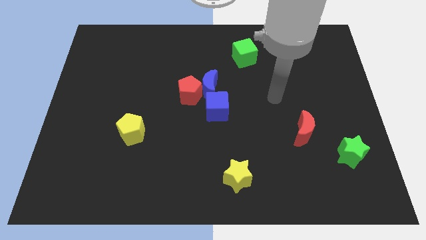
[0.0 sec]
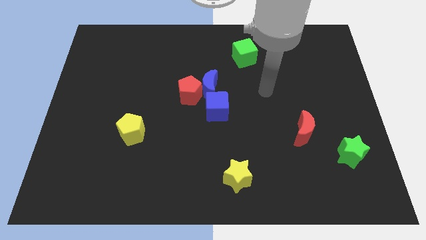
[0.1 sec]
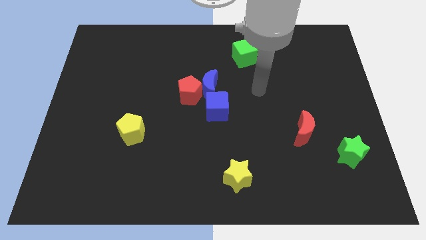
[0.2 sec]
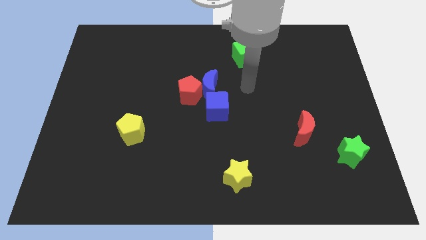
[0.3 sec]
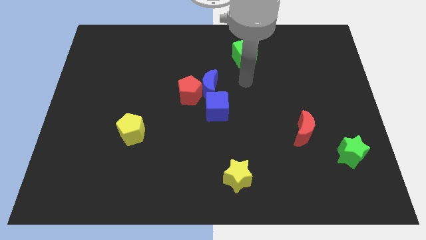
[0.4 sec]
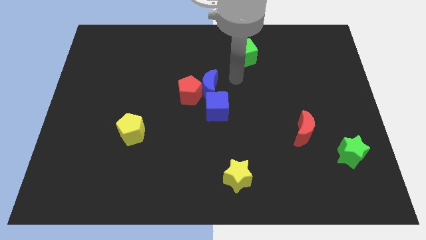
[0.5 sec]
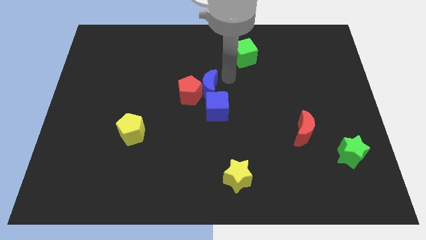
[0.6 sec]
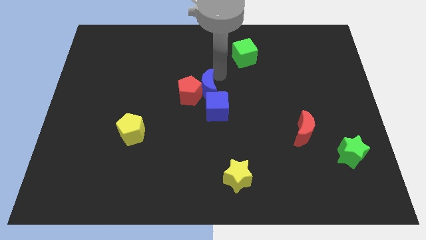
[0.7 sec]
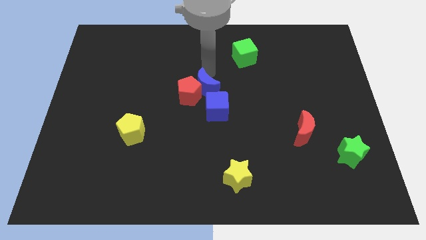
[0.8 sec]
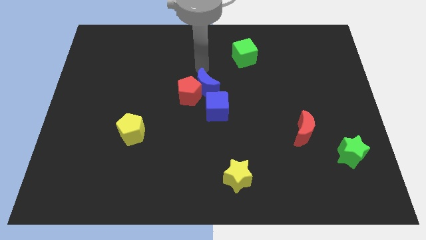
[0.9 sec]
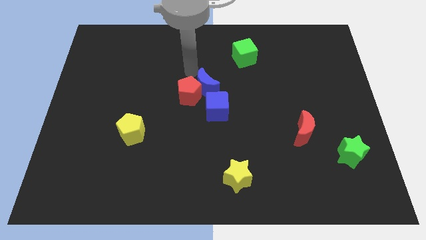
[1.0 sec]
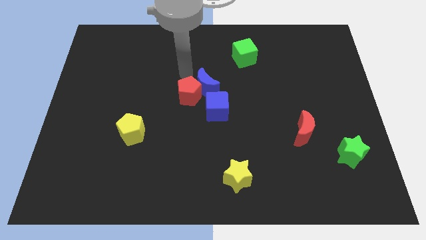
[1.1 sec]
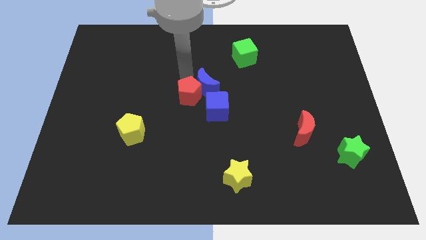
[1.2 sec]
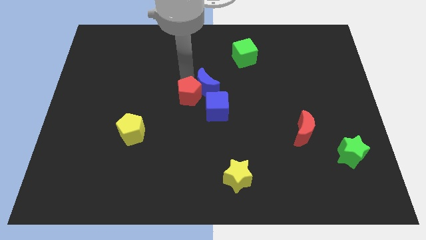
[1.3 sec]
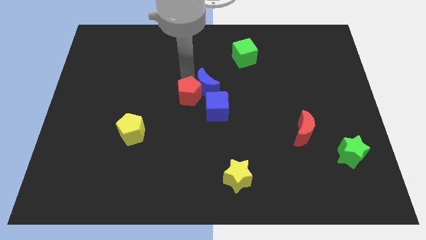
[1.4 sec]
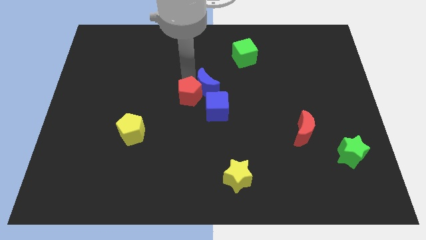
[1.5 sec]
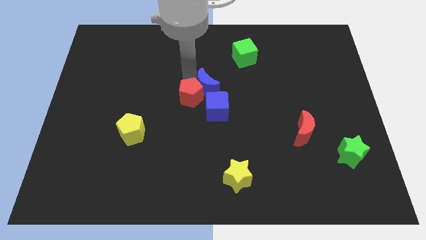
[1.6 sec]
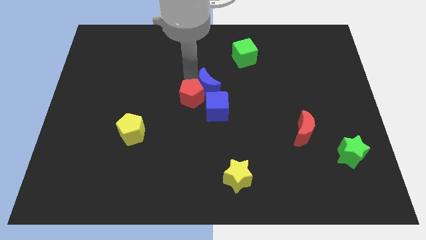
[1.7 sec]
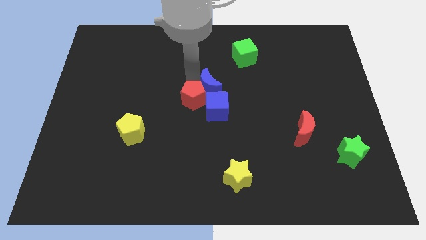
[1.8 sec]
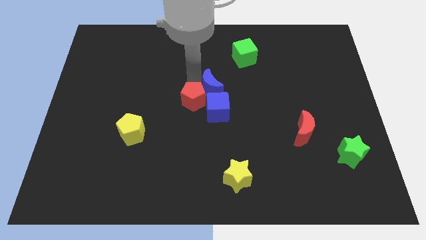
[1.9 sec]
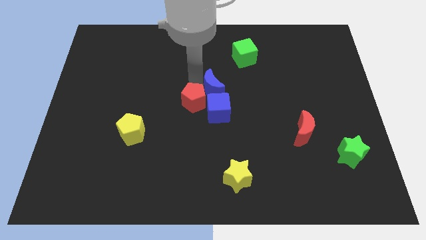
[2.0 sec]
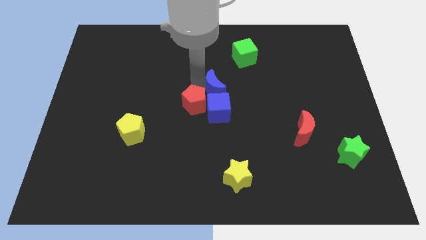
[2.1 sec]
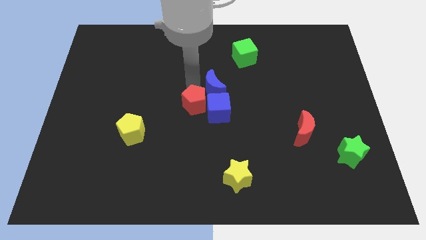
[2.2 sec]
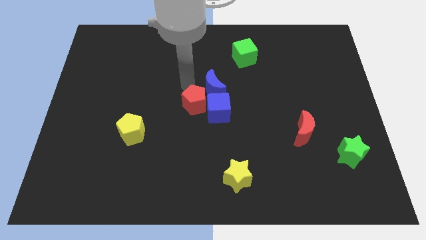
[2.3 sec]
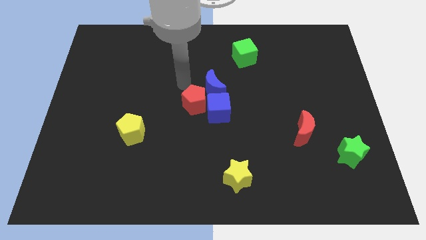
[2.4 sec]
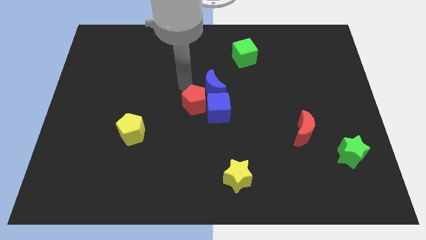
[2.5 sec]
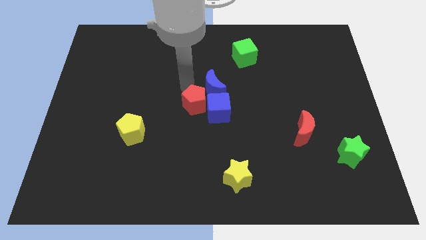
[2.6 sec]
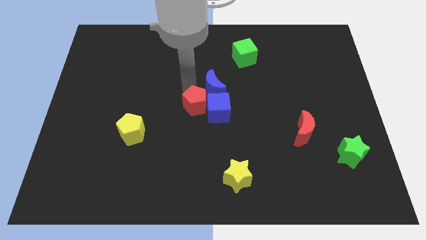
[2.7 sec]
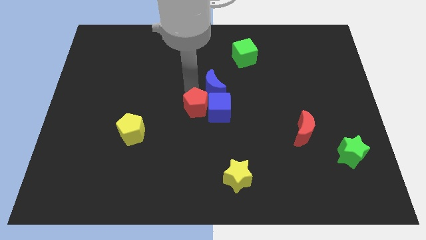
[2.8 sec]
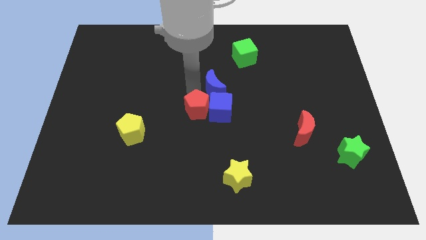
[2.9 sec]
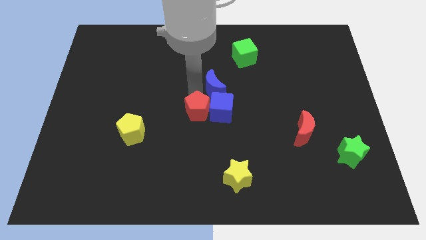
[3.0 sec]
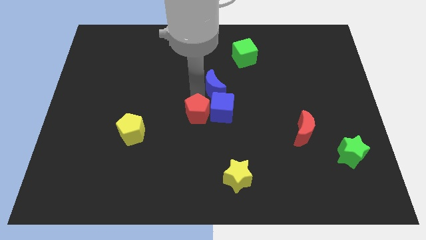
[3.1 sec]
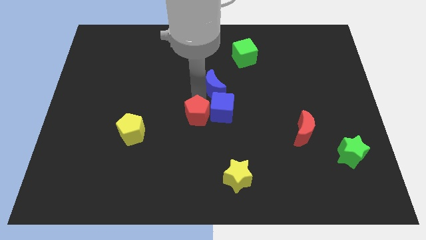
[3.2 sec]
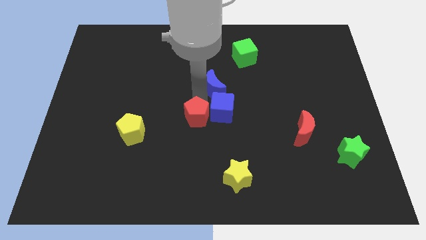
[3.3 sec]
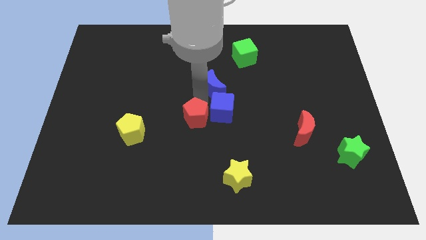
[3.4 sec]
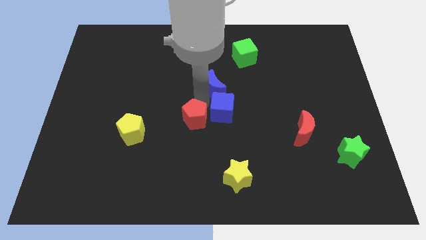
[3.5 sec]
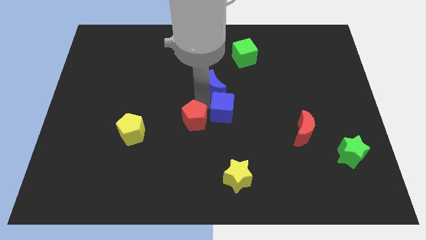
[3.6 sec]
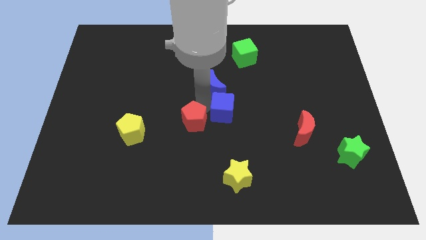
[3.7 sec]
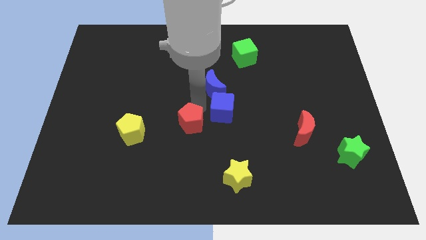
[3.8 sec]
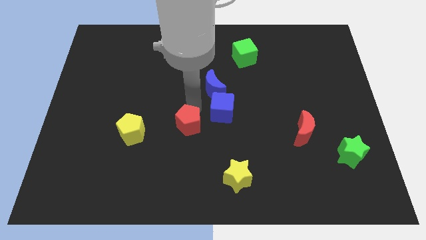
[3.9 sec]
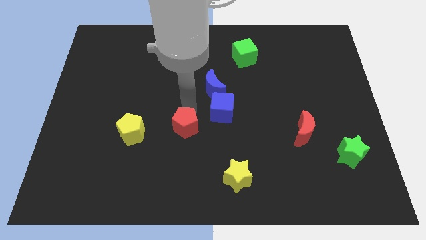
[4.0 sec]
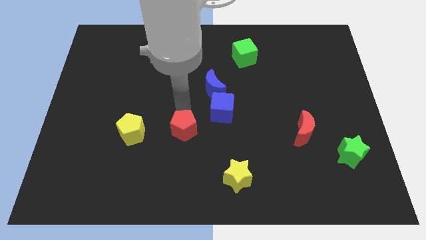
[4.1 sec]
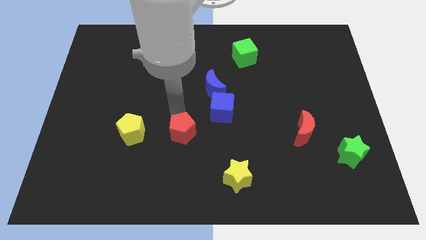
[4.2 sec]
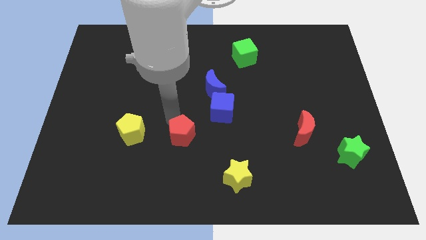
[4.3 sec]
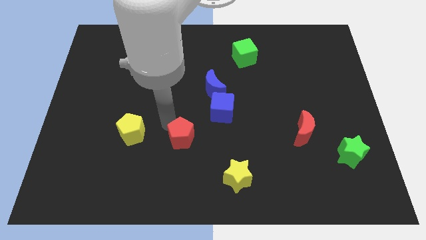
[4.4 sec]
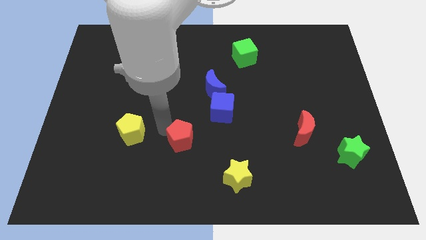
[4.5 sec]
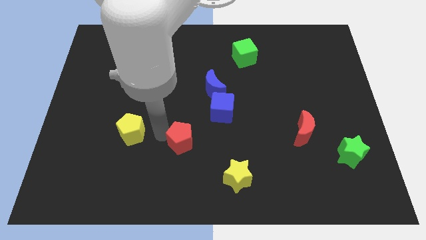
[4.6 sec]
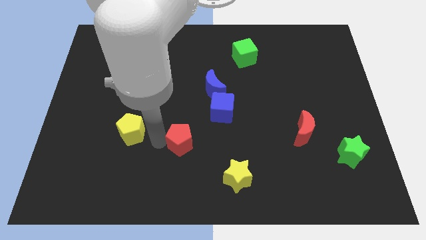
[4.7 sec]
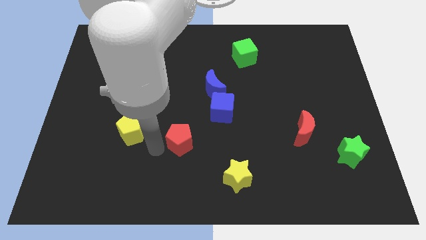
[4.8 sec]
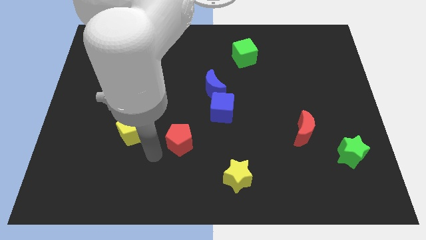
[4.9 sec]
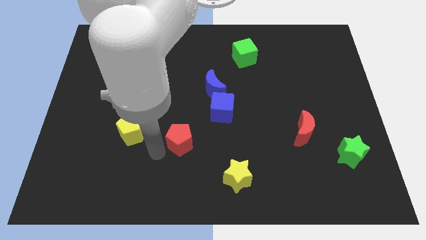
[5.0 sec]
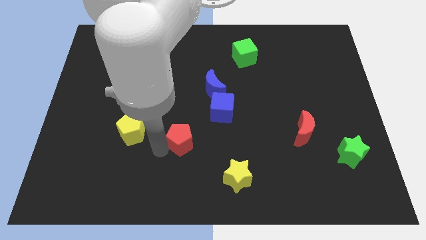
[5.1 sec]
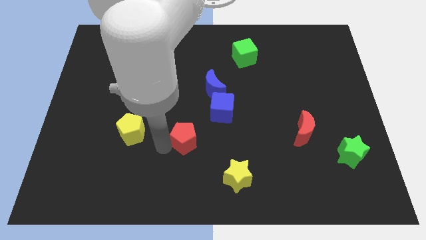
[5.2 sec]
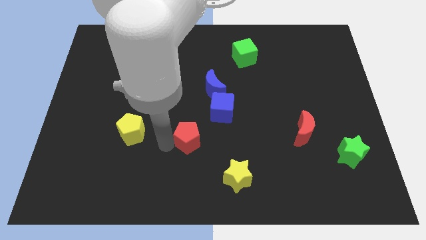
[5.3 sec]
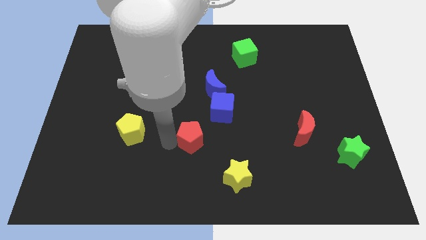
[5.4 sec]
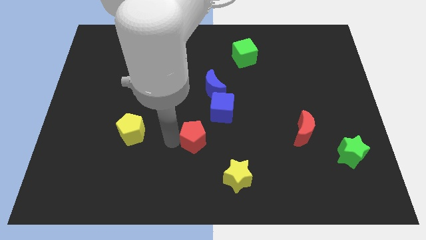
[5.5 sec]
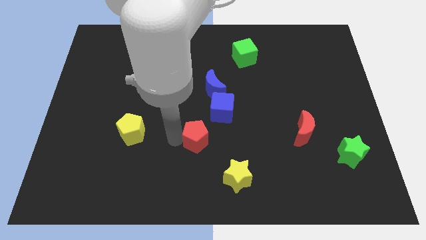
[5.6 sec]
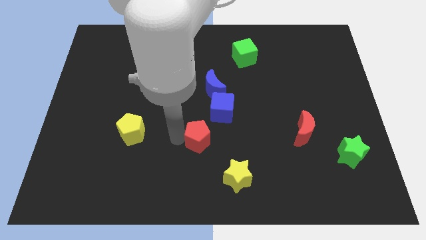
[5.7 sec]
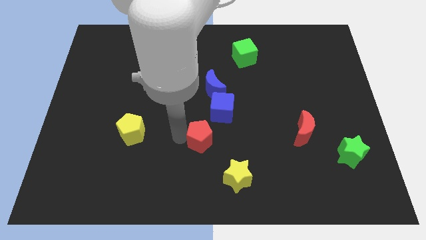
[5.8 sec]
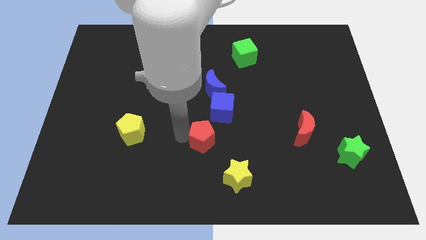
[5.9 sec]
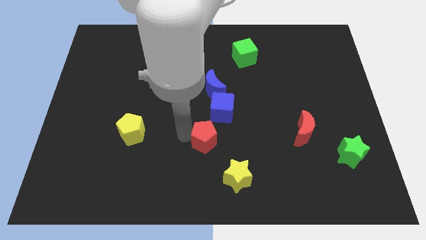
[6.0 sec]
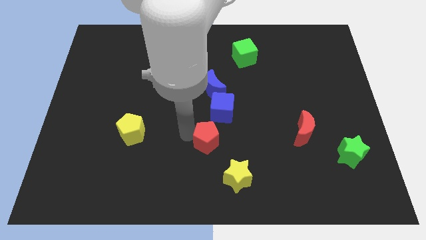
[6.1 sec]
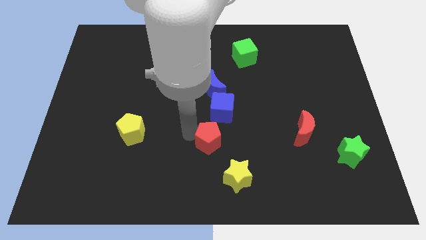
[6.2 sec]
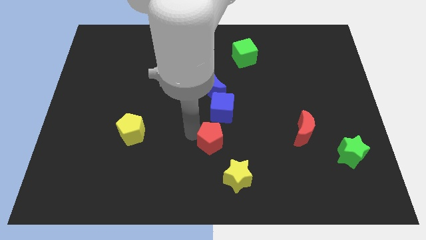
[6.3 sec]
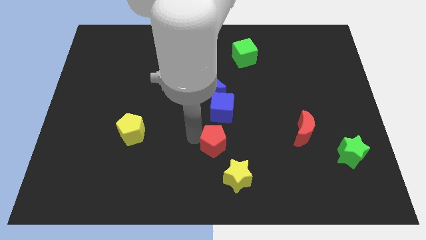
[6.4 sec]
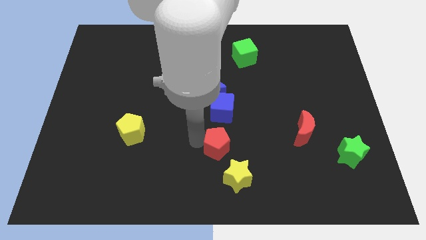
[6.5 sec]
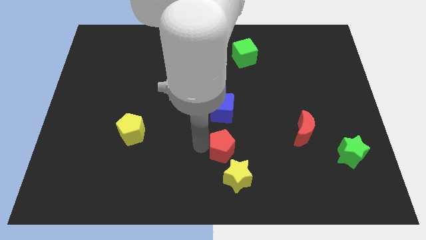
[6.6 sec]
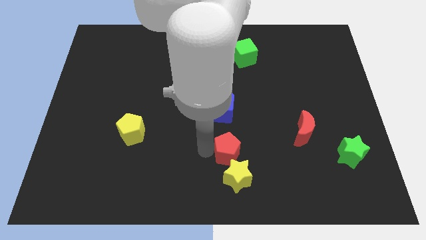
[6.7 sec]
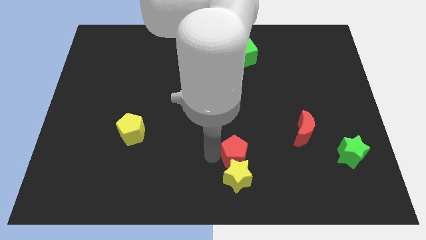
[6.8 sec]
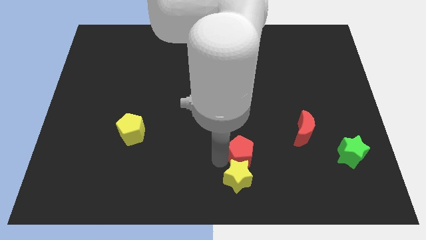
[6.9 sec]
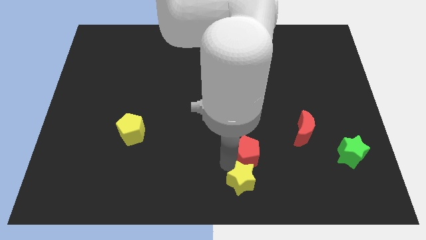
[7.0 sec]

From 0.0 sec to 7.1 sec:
slide the red pentagon diagonally downwards and to the right

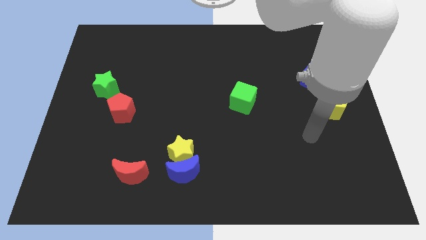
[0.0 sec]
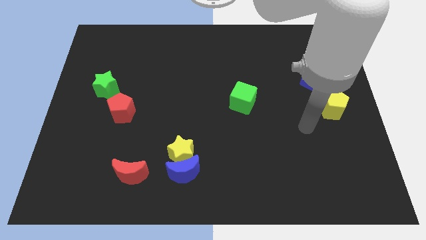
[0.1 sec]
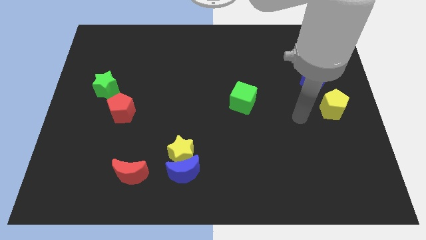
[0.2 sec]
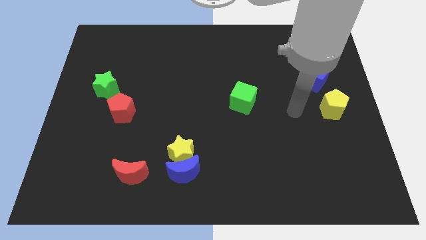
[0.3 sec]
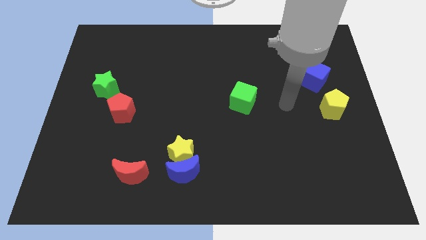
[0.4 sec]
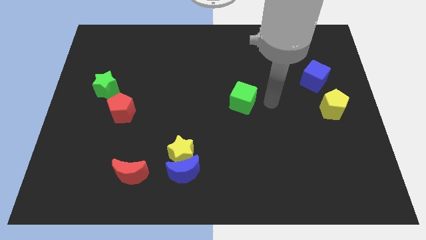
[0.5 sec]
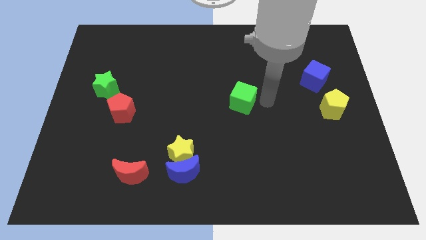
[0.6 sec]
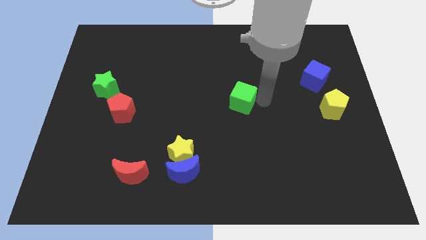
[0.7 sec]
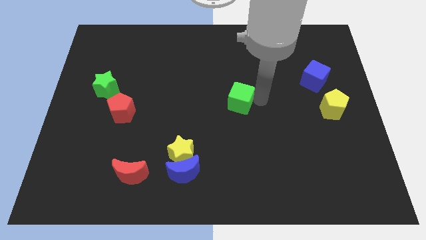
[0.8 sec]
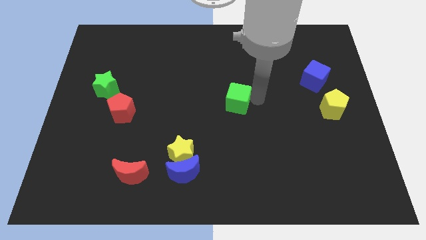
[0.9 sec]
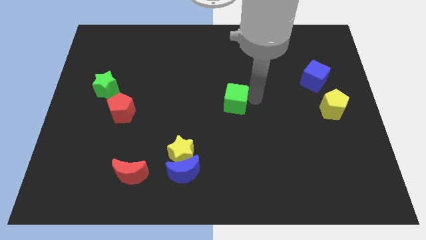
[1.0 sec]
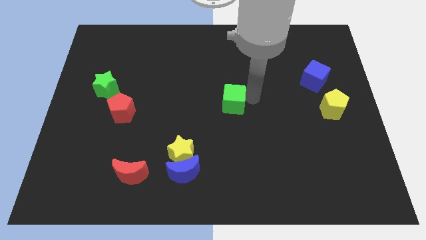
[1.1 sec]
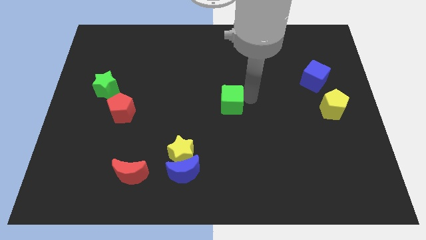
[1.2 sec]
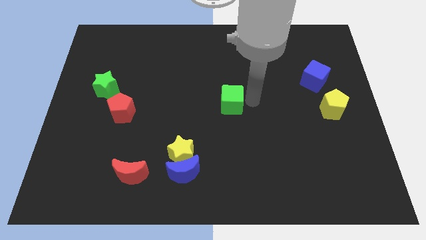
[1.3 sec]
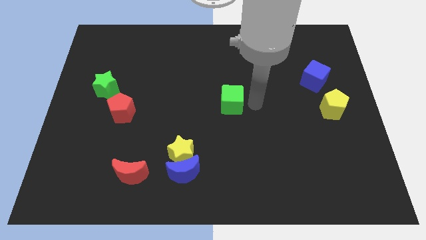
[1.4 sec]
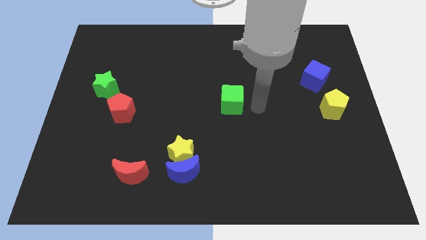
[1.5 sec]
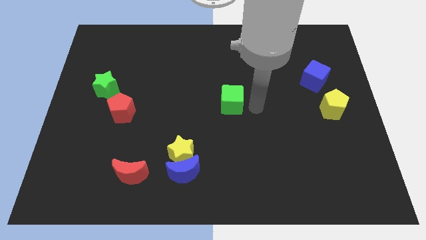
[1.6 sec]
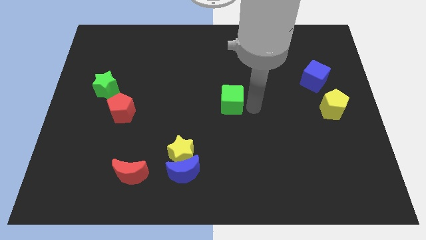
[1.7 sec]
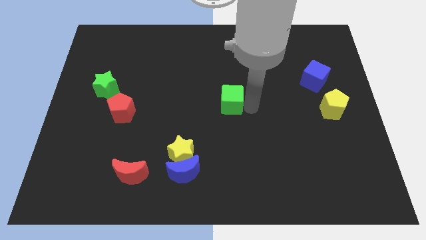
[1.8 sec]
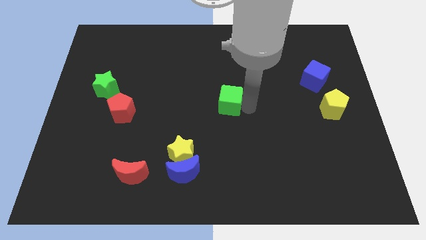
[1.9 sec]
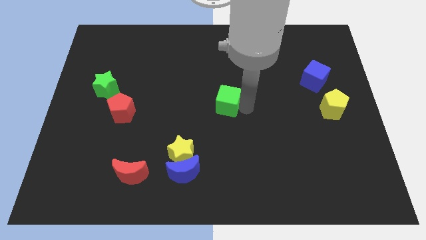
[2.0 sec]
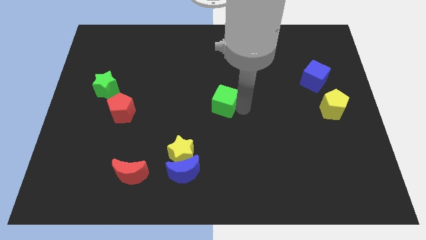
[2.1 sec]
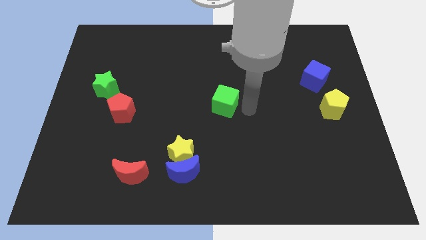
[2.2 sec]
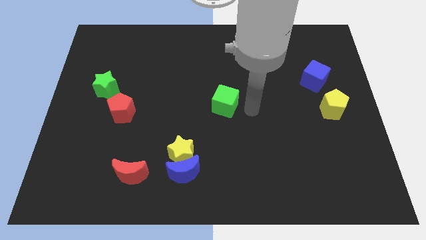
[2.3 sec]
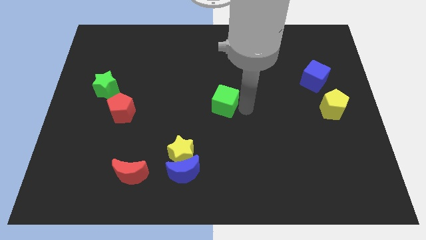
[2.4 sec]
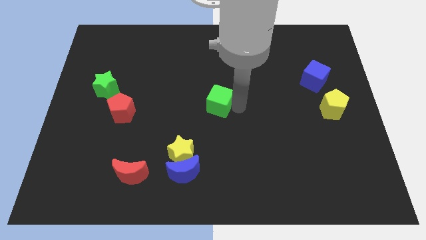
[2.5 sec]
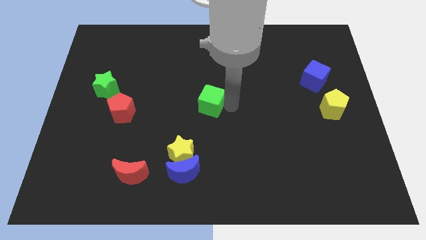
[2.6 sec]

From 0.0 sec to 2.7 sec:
push the green cube a bit to the left
